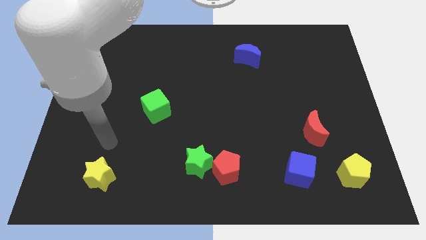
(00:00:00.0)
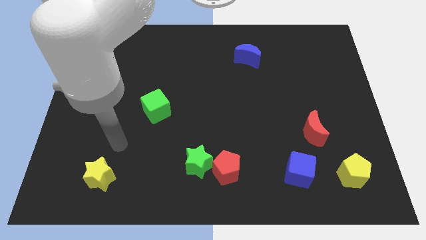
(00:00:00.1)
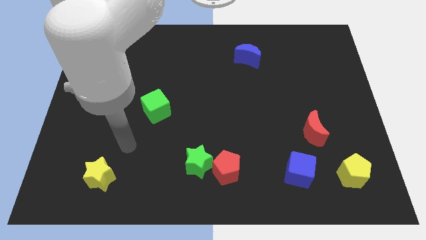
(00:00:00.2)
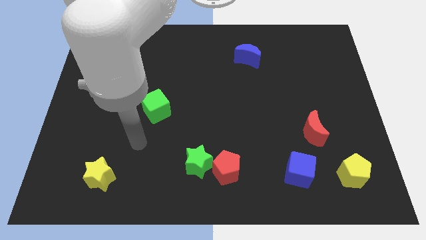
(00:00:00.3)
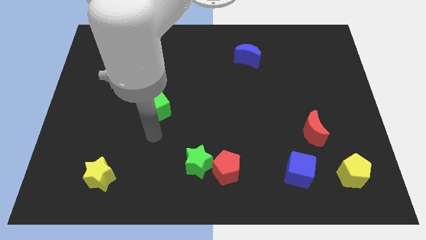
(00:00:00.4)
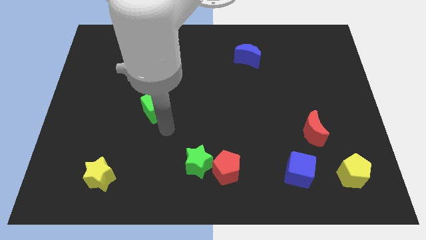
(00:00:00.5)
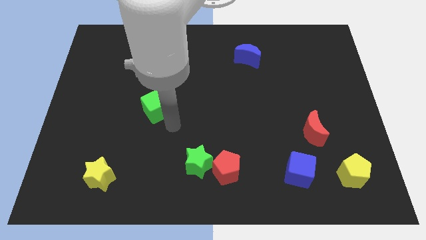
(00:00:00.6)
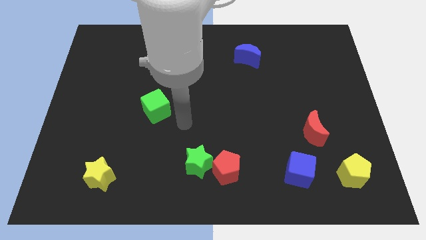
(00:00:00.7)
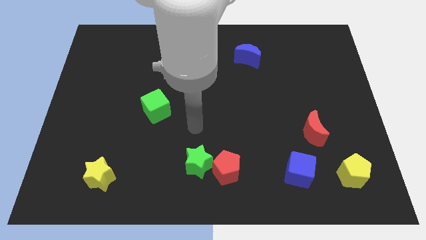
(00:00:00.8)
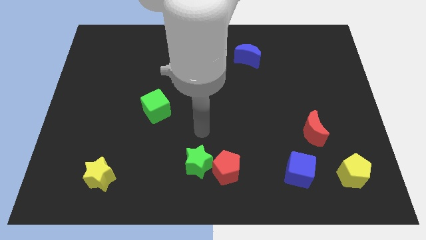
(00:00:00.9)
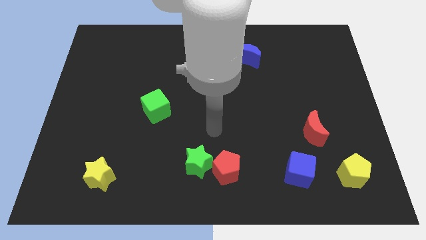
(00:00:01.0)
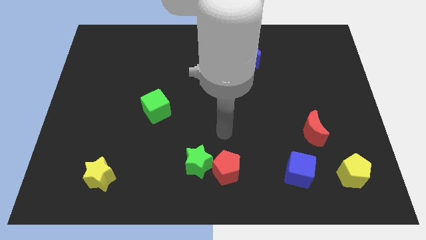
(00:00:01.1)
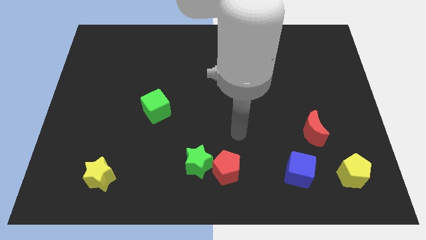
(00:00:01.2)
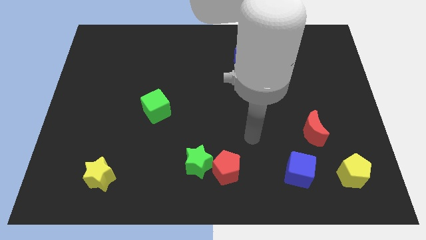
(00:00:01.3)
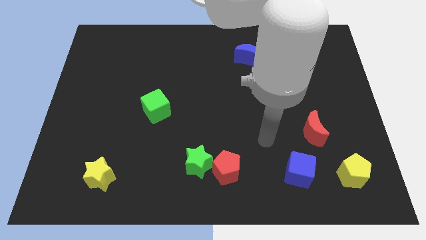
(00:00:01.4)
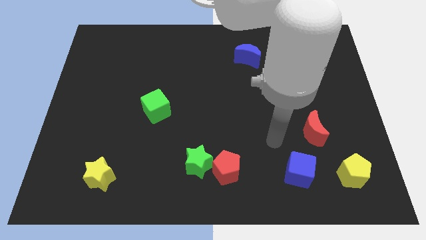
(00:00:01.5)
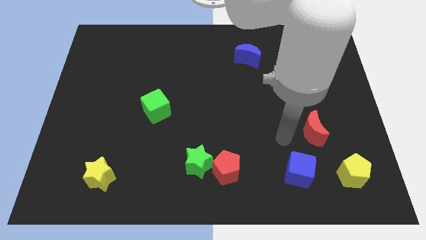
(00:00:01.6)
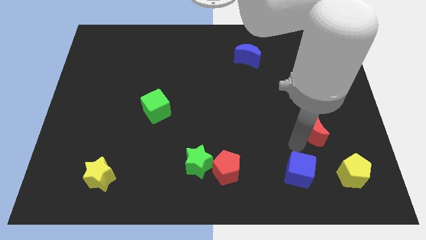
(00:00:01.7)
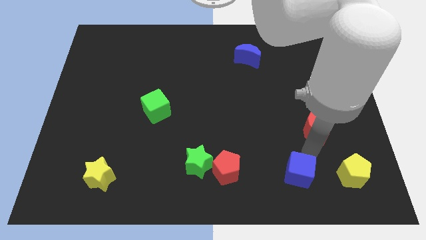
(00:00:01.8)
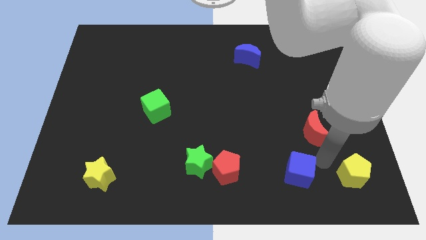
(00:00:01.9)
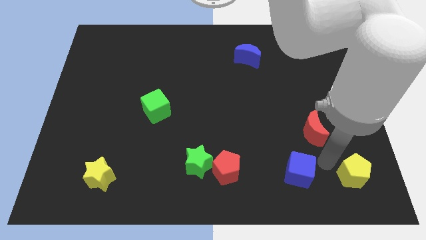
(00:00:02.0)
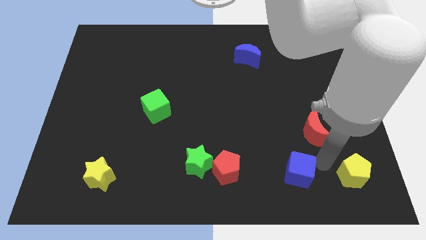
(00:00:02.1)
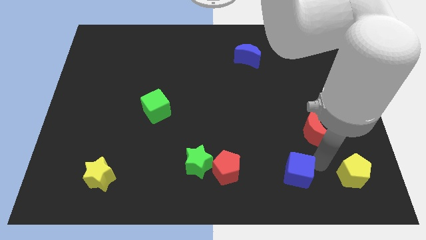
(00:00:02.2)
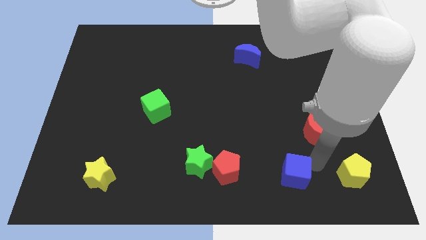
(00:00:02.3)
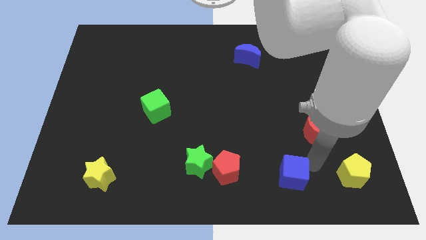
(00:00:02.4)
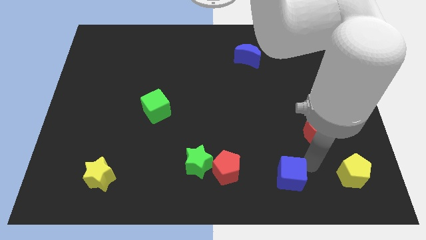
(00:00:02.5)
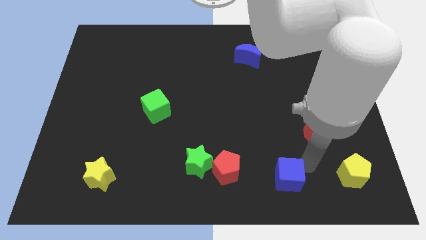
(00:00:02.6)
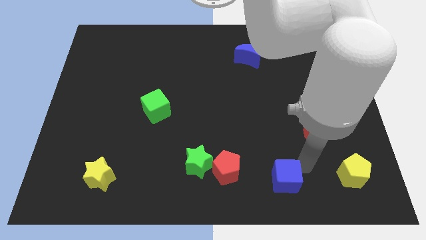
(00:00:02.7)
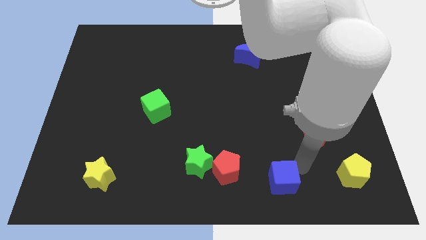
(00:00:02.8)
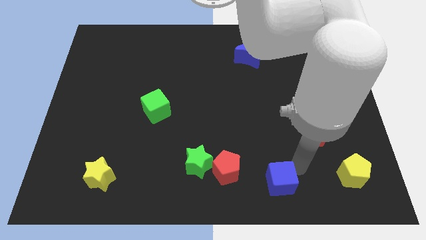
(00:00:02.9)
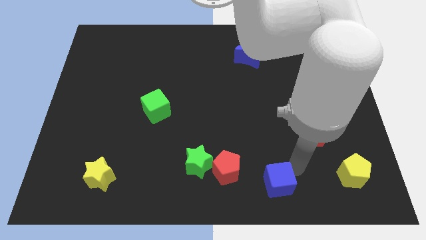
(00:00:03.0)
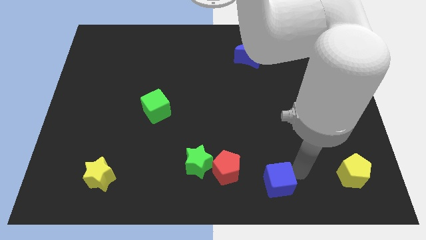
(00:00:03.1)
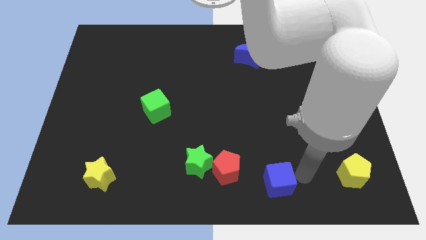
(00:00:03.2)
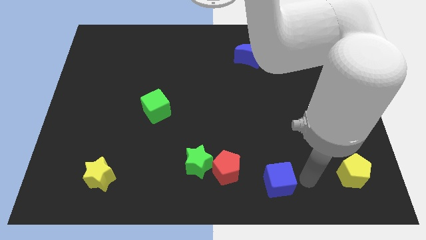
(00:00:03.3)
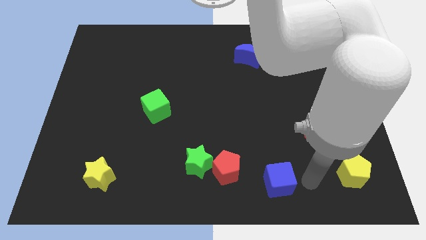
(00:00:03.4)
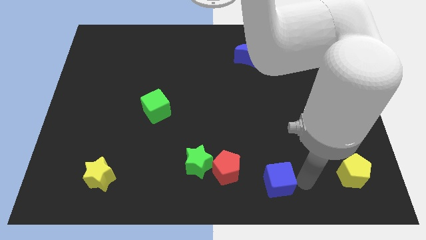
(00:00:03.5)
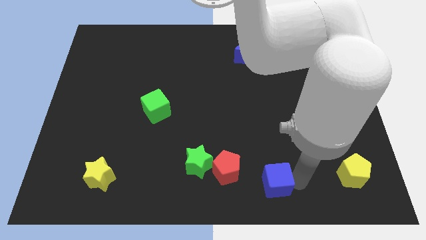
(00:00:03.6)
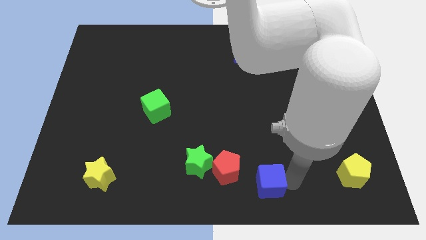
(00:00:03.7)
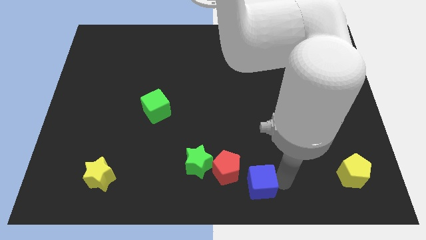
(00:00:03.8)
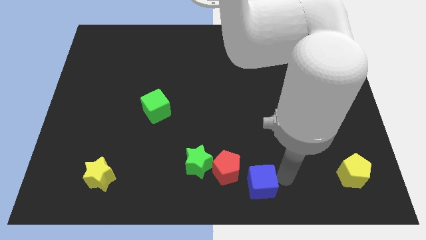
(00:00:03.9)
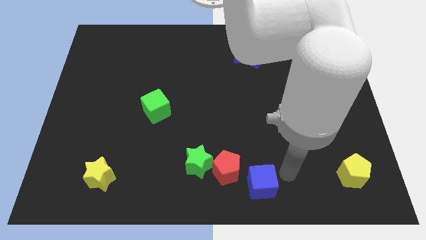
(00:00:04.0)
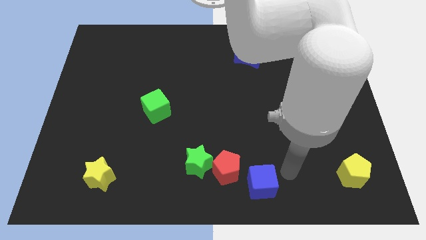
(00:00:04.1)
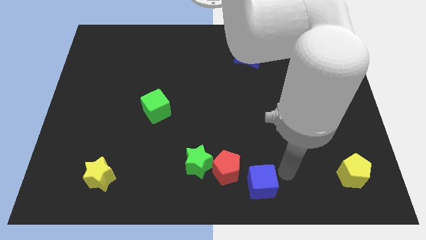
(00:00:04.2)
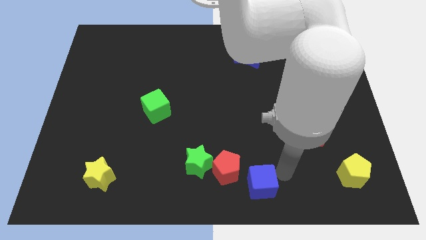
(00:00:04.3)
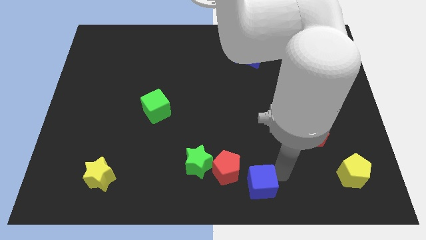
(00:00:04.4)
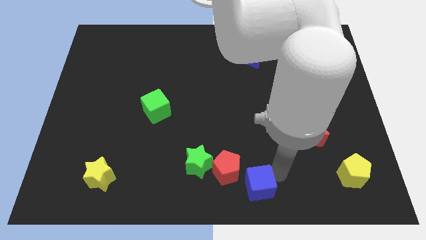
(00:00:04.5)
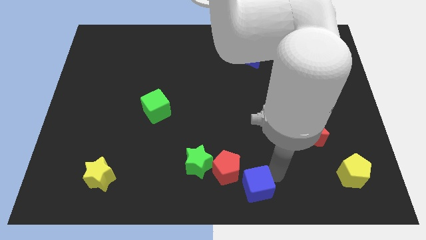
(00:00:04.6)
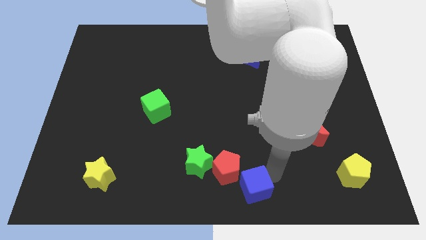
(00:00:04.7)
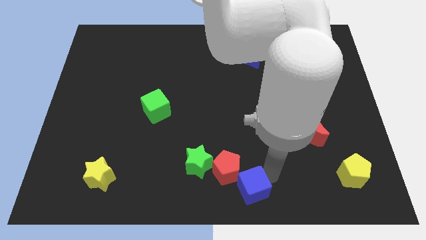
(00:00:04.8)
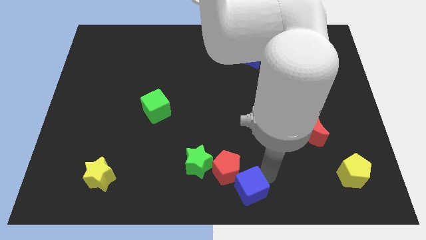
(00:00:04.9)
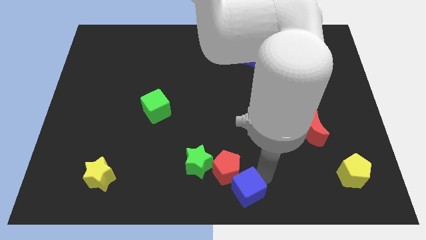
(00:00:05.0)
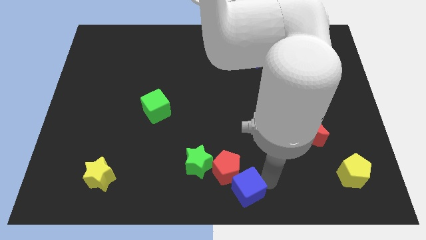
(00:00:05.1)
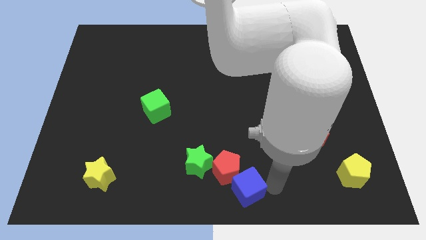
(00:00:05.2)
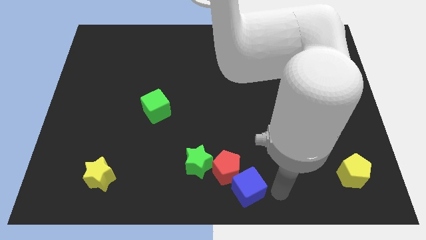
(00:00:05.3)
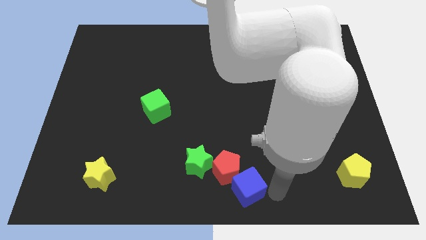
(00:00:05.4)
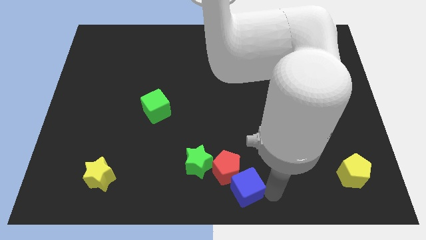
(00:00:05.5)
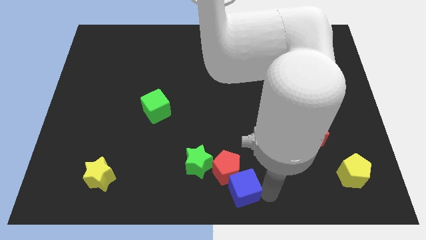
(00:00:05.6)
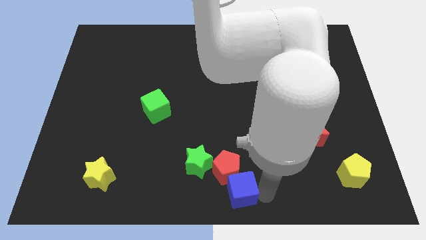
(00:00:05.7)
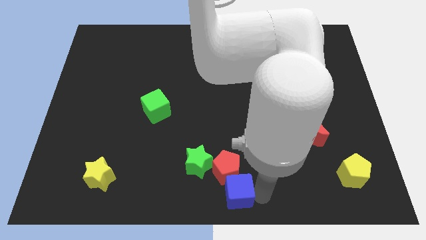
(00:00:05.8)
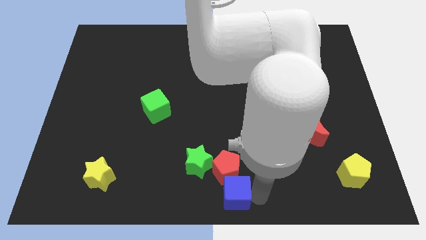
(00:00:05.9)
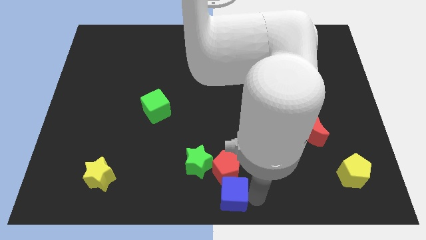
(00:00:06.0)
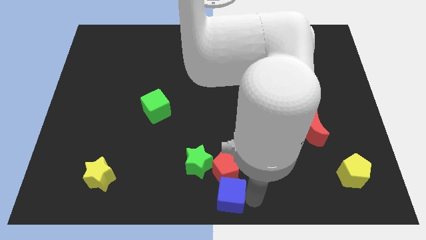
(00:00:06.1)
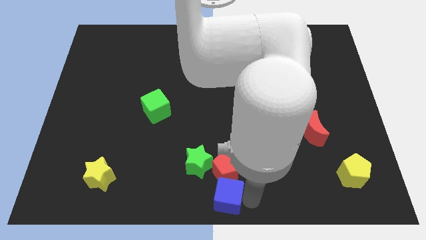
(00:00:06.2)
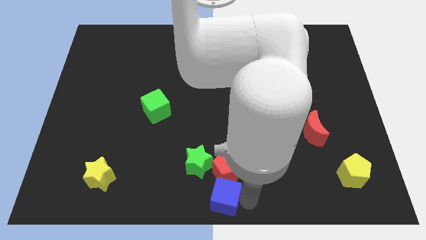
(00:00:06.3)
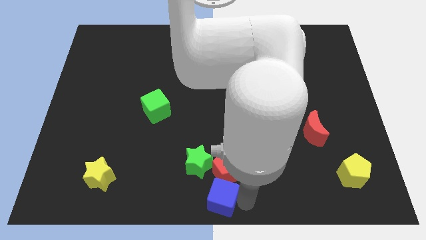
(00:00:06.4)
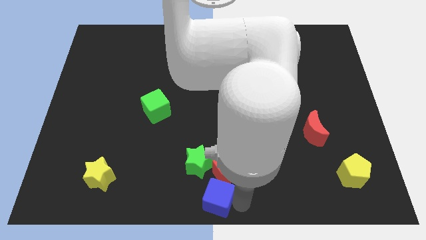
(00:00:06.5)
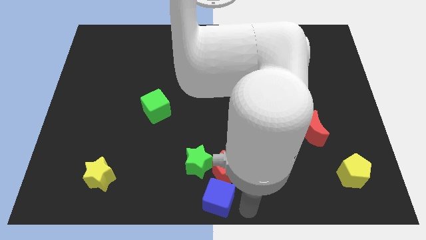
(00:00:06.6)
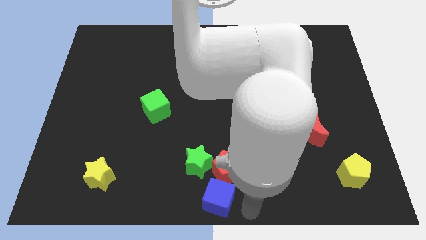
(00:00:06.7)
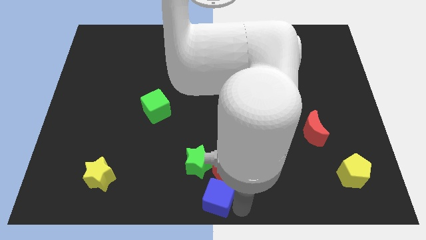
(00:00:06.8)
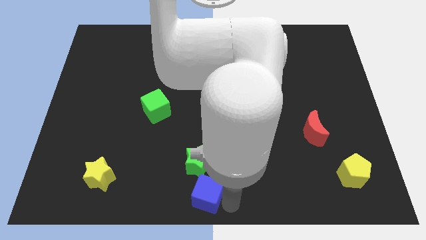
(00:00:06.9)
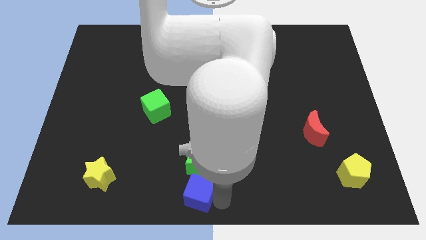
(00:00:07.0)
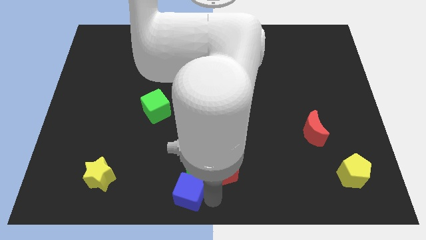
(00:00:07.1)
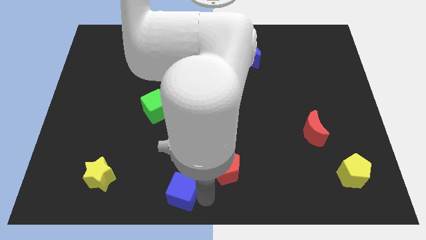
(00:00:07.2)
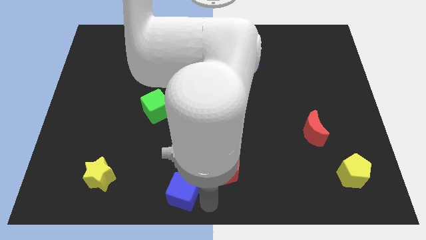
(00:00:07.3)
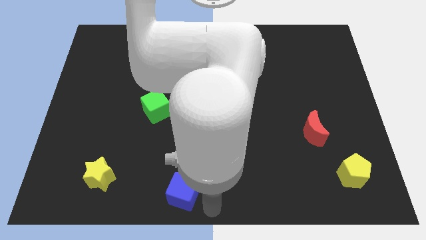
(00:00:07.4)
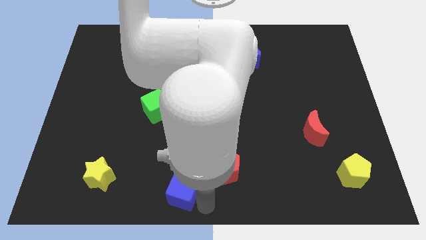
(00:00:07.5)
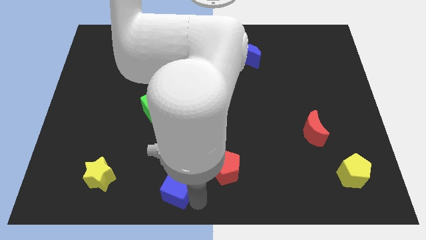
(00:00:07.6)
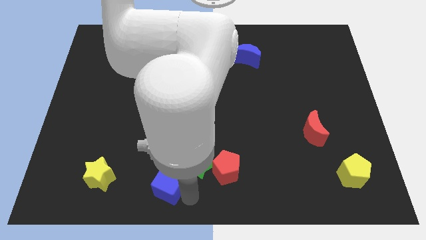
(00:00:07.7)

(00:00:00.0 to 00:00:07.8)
slide the blue cube right of the yellow star

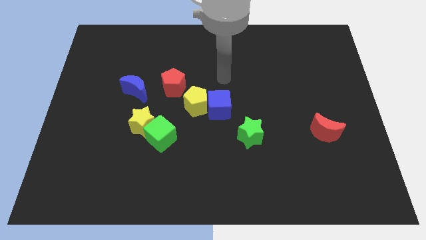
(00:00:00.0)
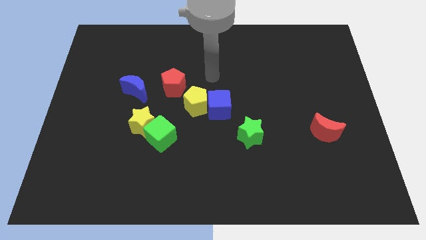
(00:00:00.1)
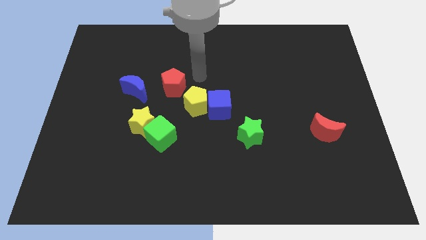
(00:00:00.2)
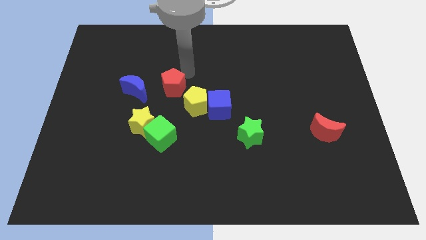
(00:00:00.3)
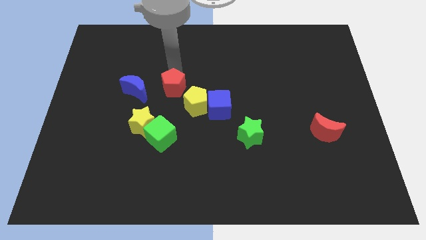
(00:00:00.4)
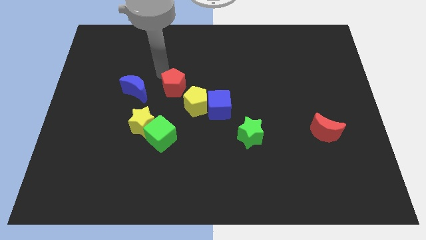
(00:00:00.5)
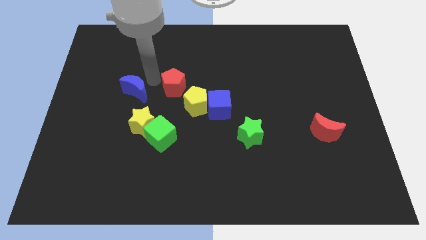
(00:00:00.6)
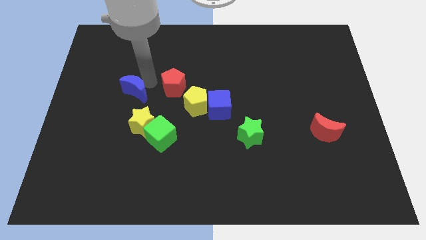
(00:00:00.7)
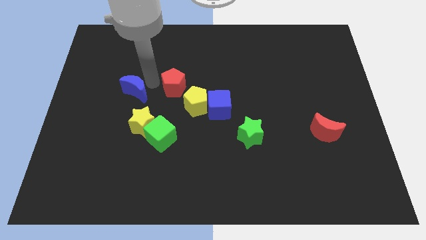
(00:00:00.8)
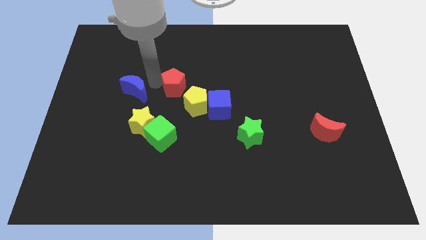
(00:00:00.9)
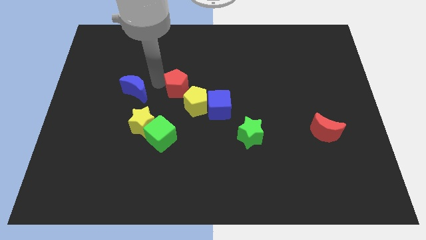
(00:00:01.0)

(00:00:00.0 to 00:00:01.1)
push the red pentagon diagonally up and to the left of the blue cube
